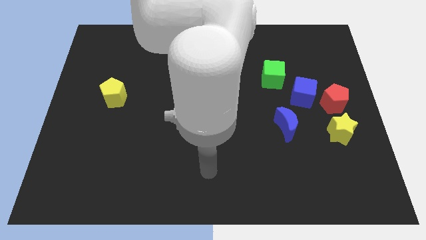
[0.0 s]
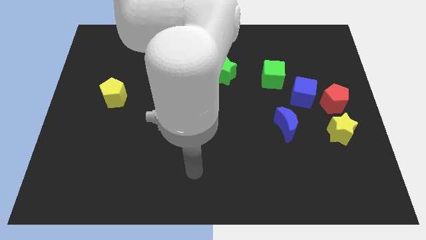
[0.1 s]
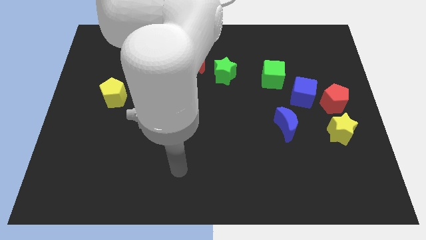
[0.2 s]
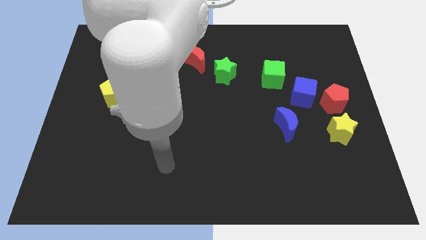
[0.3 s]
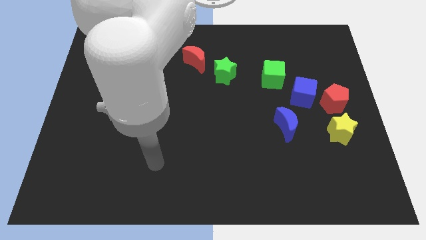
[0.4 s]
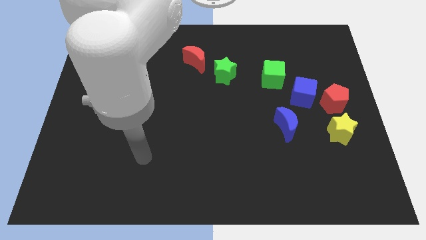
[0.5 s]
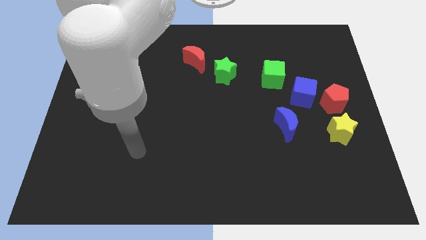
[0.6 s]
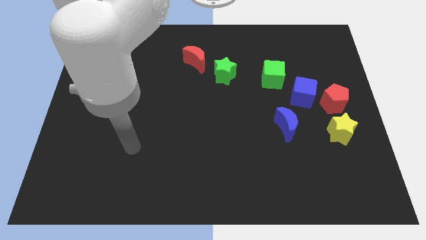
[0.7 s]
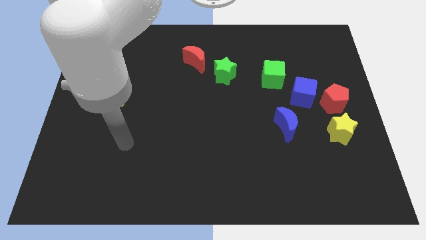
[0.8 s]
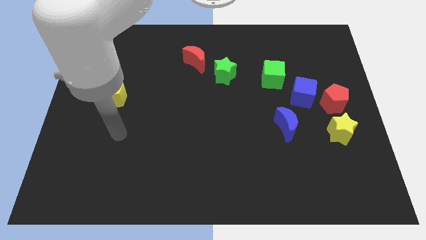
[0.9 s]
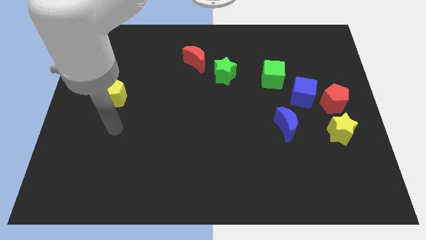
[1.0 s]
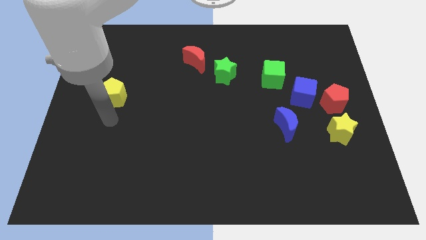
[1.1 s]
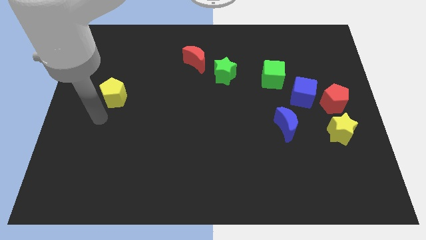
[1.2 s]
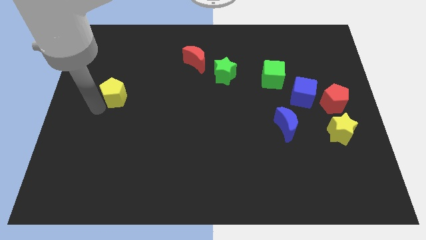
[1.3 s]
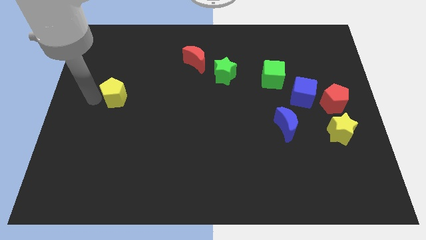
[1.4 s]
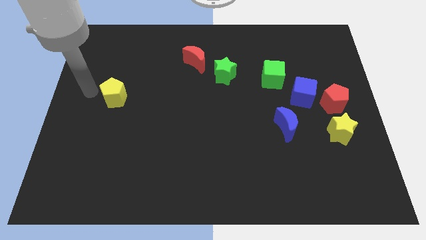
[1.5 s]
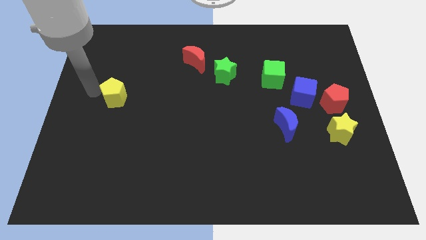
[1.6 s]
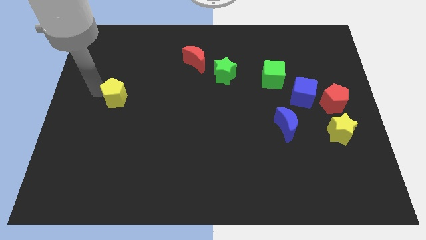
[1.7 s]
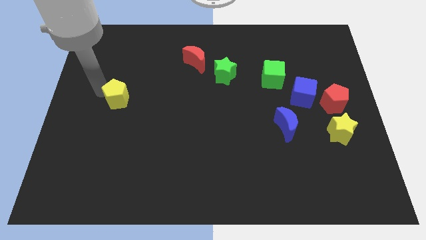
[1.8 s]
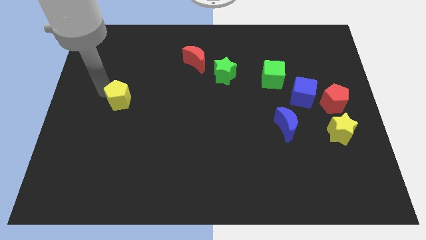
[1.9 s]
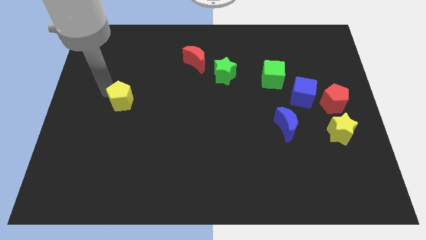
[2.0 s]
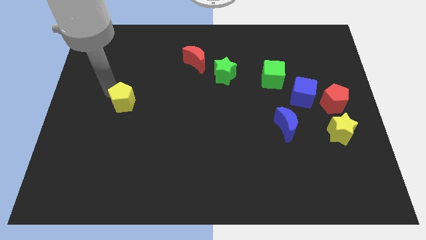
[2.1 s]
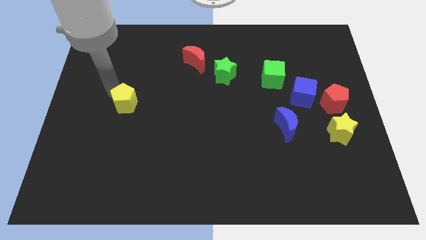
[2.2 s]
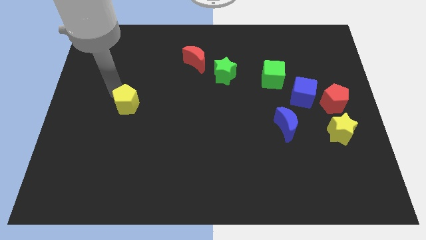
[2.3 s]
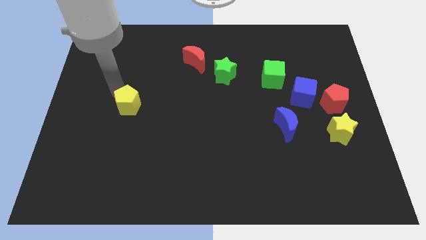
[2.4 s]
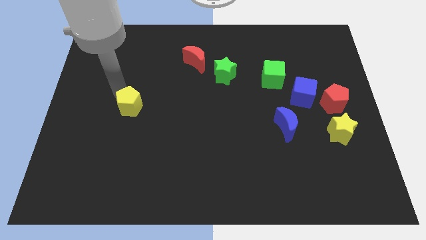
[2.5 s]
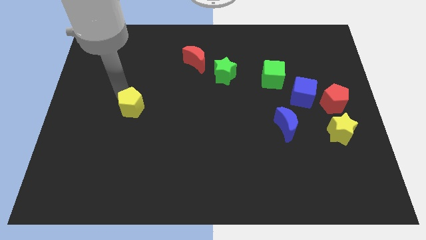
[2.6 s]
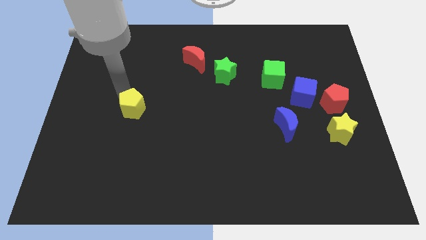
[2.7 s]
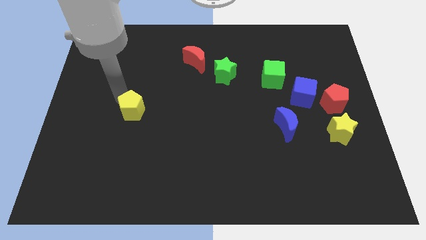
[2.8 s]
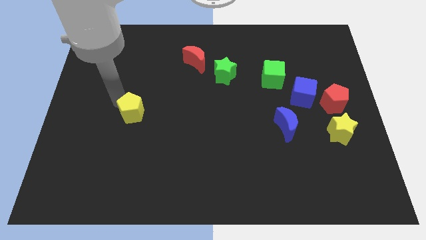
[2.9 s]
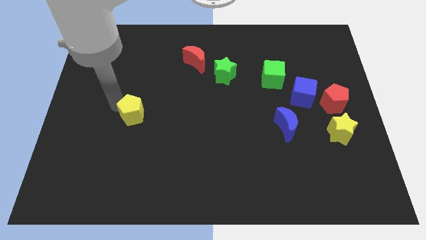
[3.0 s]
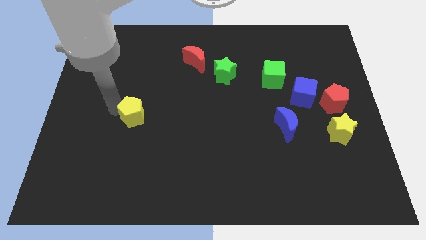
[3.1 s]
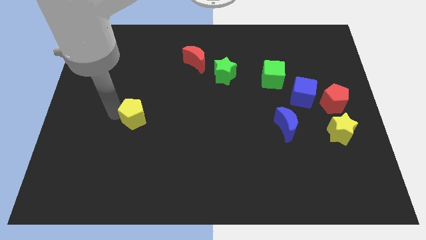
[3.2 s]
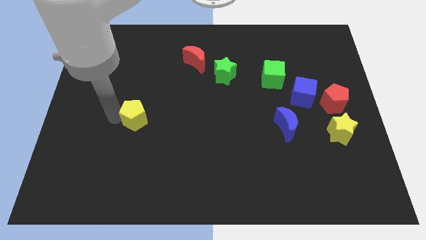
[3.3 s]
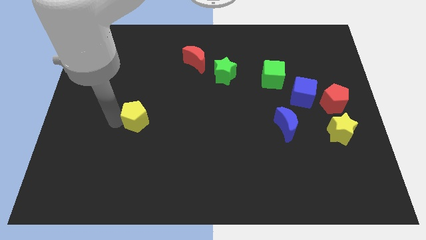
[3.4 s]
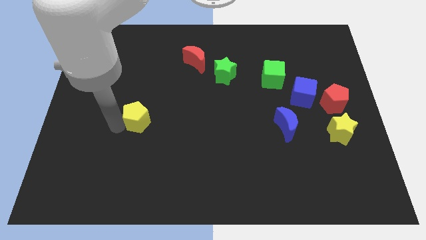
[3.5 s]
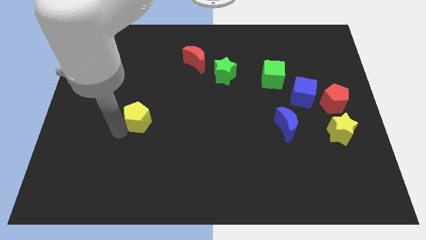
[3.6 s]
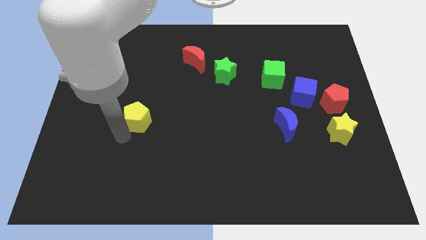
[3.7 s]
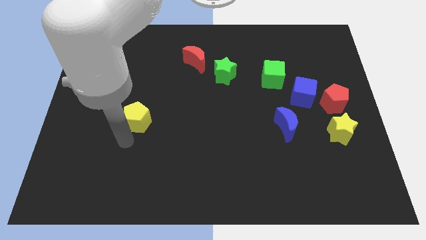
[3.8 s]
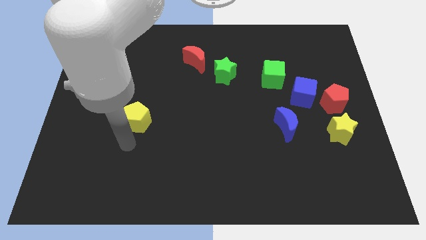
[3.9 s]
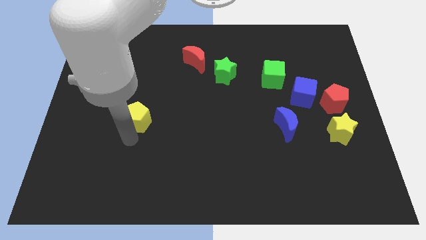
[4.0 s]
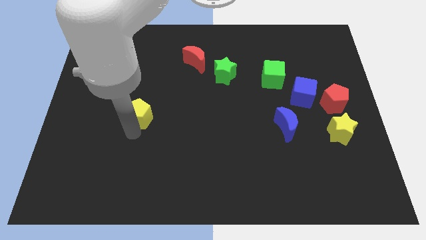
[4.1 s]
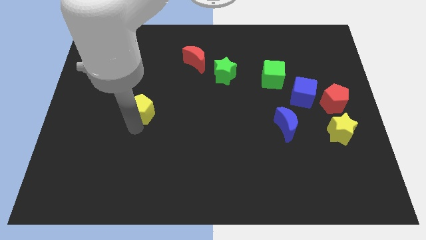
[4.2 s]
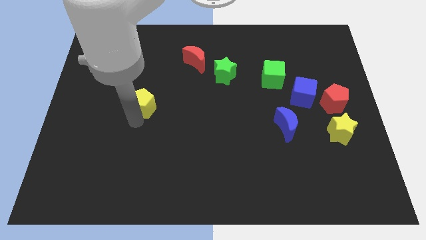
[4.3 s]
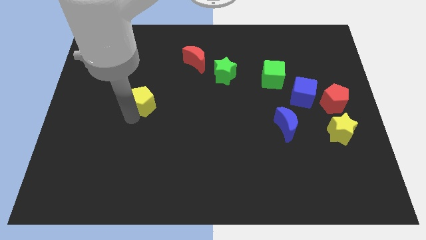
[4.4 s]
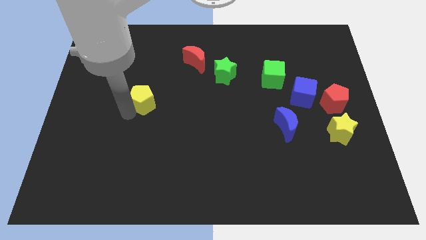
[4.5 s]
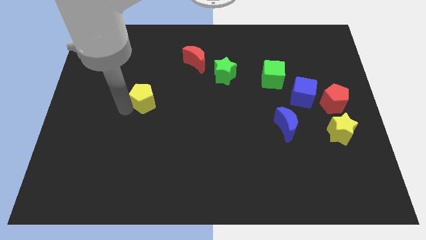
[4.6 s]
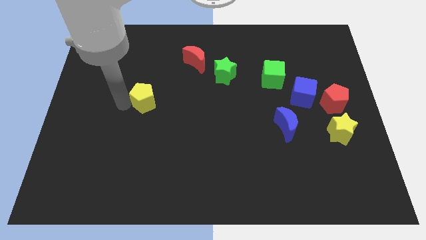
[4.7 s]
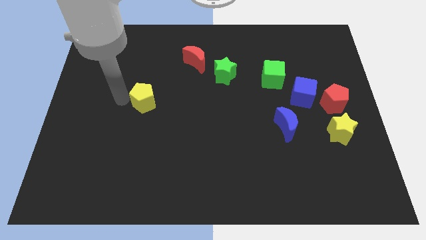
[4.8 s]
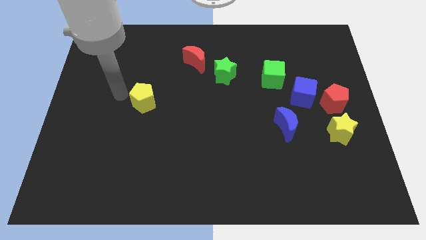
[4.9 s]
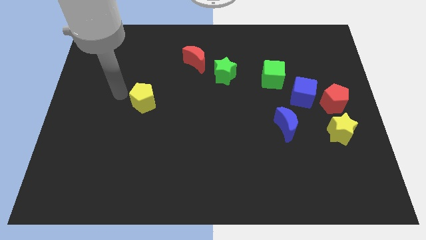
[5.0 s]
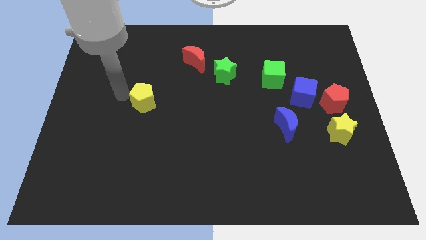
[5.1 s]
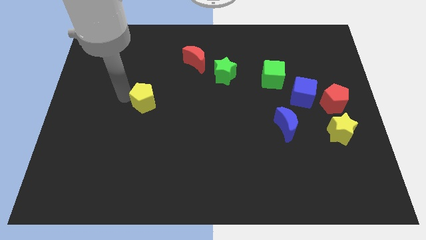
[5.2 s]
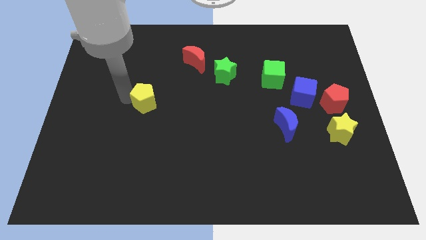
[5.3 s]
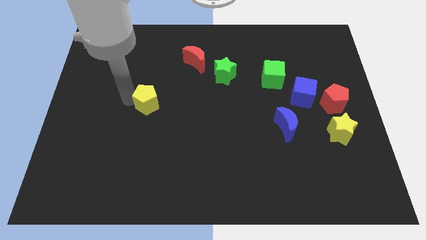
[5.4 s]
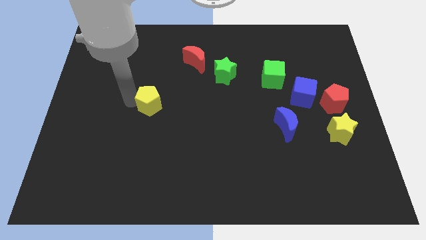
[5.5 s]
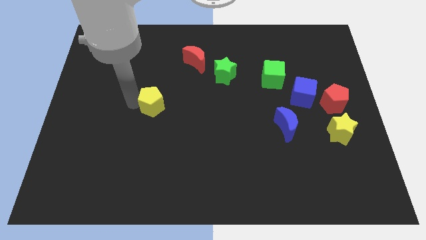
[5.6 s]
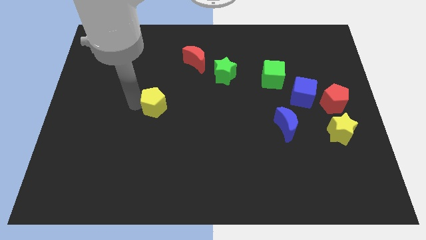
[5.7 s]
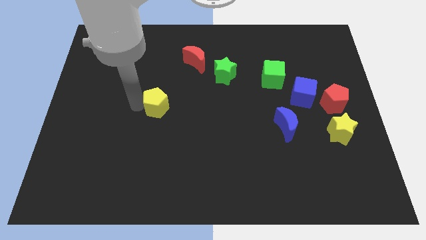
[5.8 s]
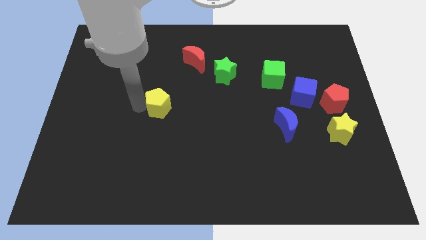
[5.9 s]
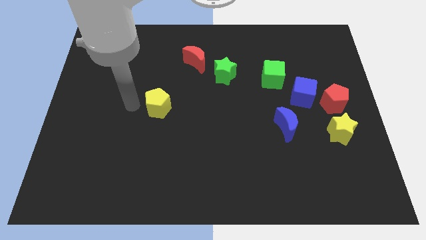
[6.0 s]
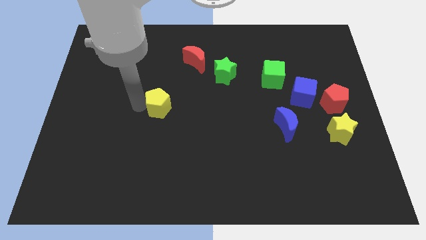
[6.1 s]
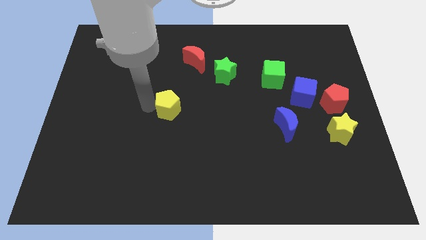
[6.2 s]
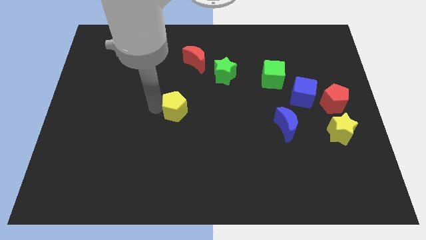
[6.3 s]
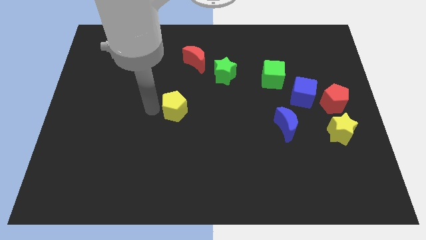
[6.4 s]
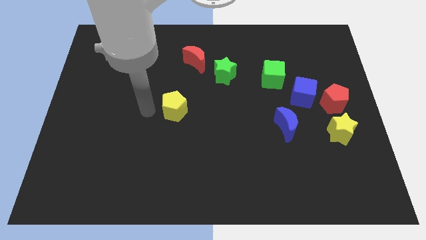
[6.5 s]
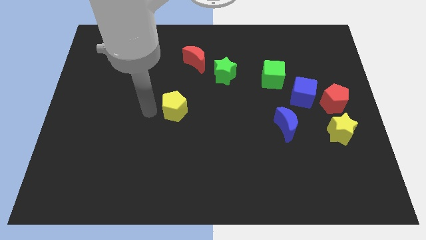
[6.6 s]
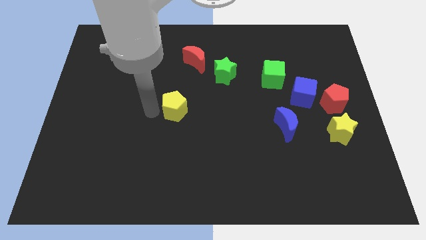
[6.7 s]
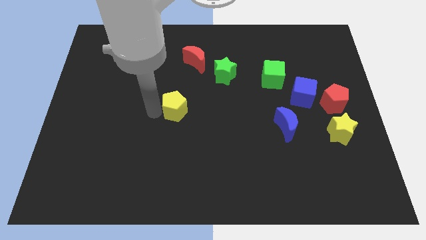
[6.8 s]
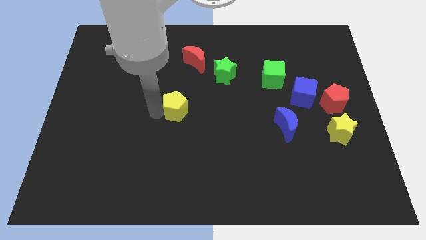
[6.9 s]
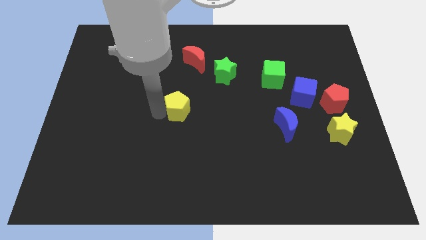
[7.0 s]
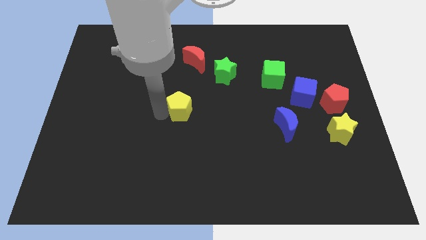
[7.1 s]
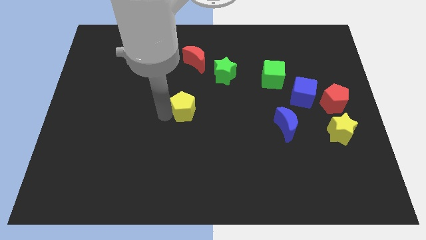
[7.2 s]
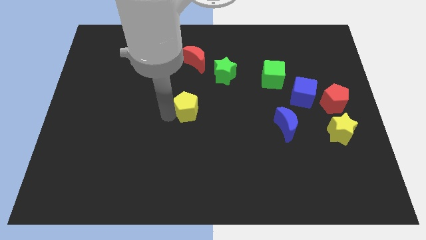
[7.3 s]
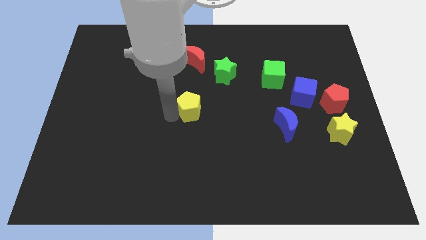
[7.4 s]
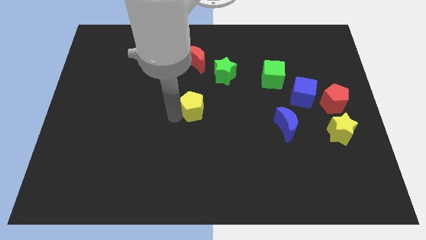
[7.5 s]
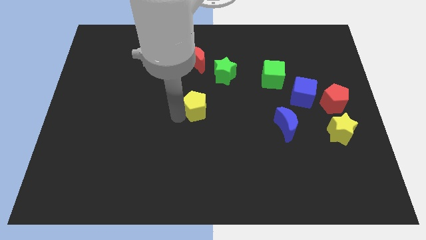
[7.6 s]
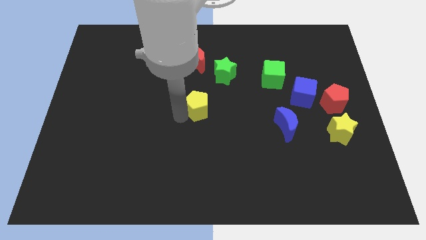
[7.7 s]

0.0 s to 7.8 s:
slide the yellow pentagon right
